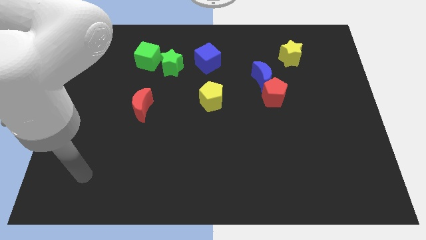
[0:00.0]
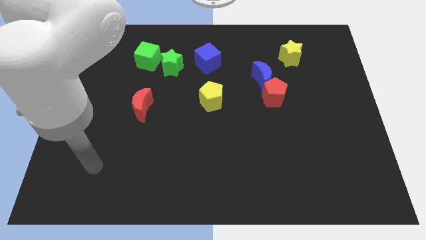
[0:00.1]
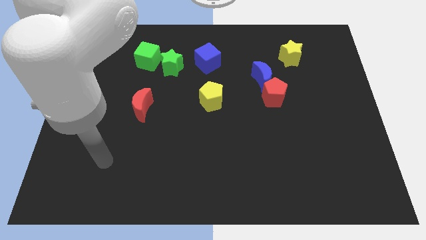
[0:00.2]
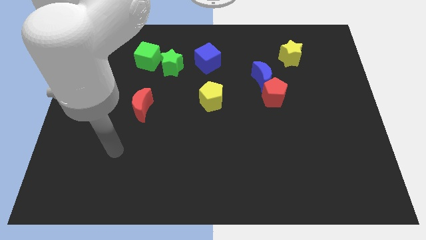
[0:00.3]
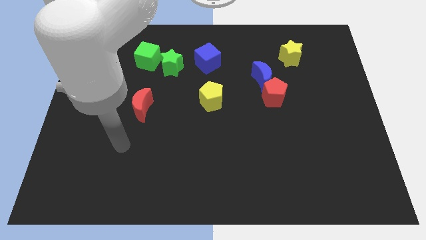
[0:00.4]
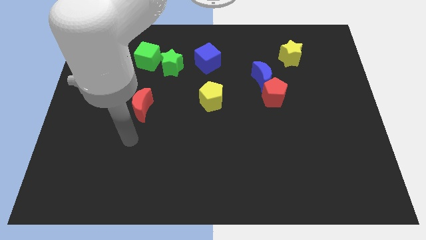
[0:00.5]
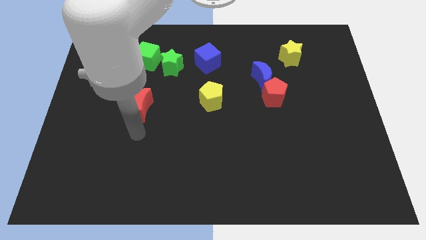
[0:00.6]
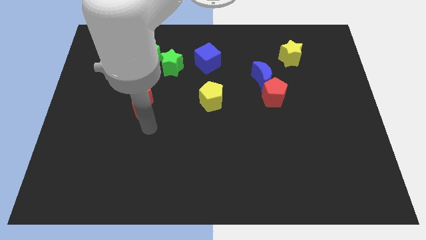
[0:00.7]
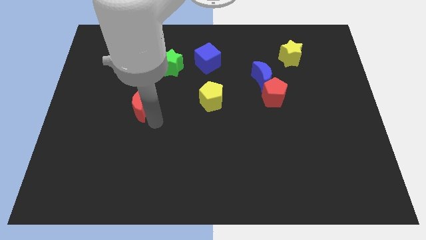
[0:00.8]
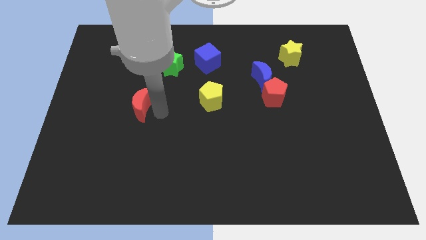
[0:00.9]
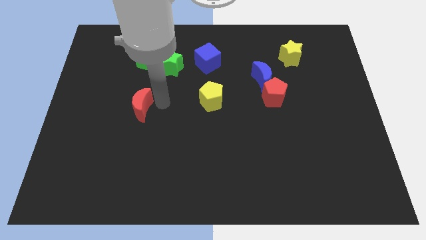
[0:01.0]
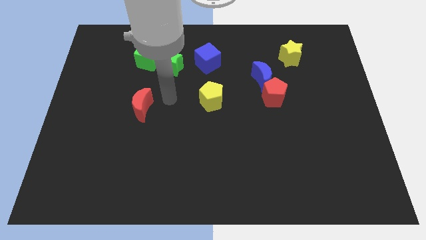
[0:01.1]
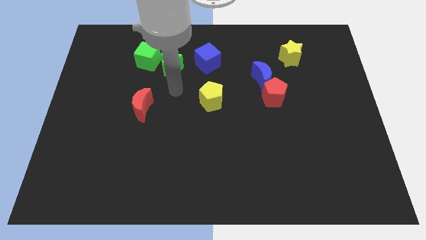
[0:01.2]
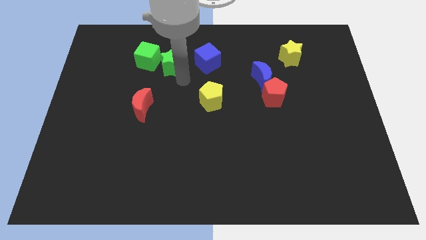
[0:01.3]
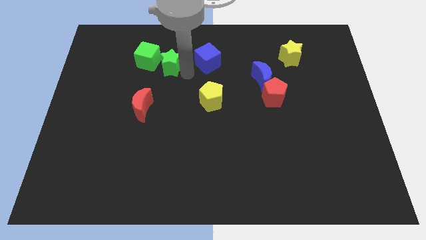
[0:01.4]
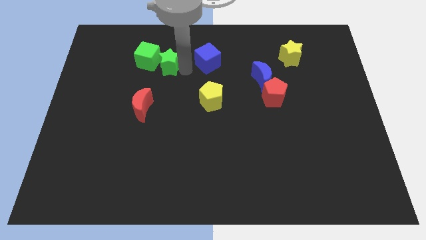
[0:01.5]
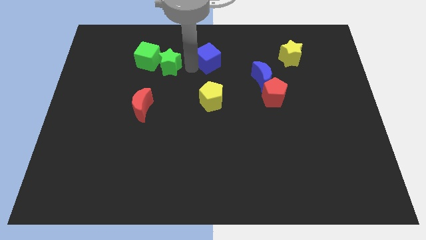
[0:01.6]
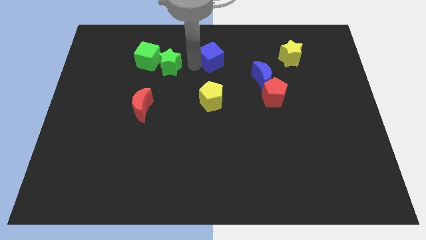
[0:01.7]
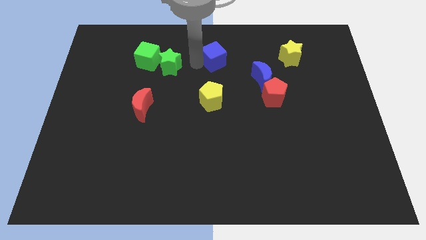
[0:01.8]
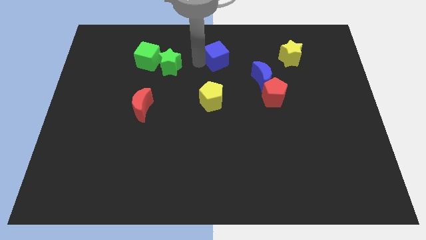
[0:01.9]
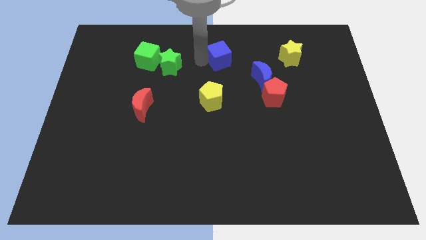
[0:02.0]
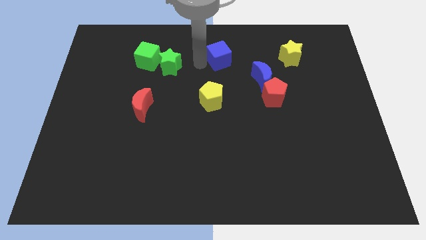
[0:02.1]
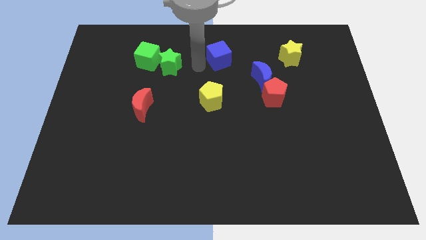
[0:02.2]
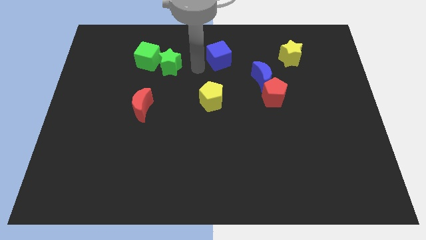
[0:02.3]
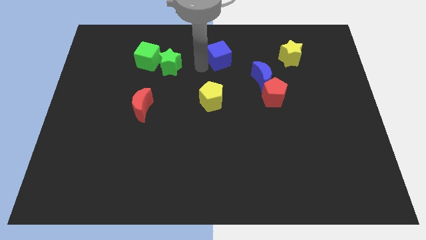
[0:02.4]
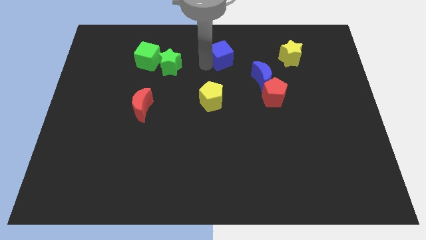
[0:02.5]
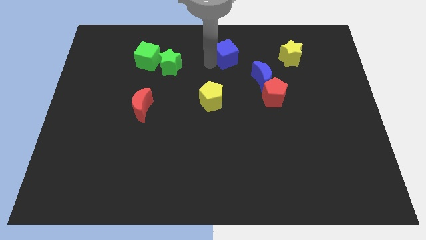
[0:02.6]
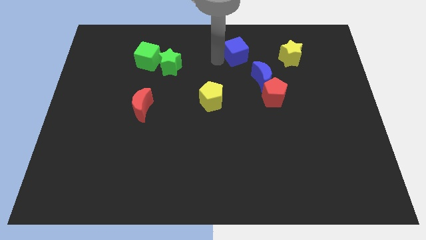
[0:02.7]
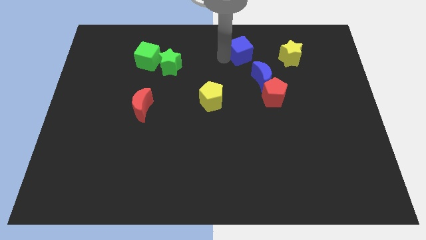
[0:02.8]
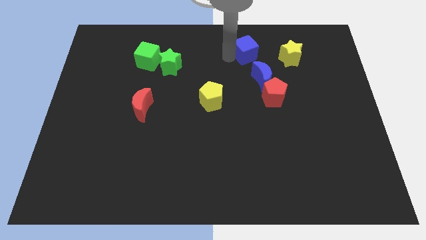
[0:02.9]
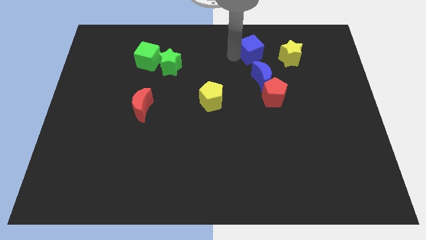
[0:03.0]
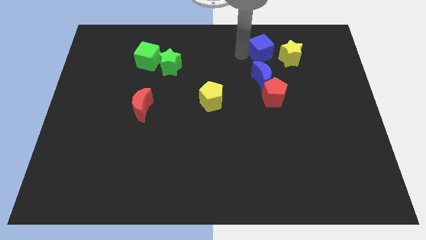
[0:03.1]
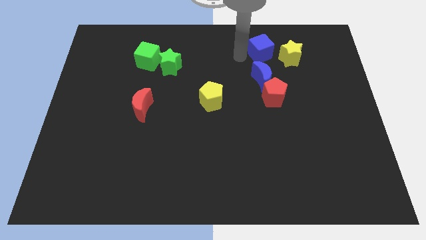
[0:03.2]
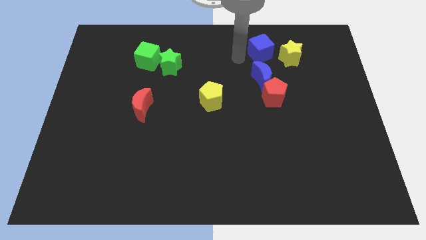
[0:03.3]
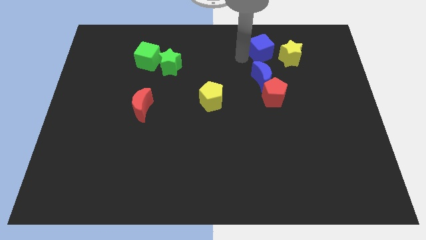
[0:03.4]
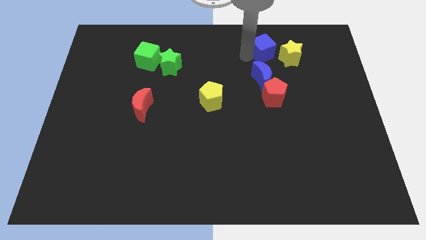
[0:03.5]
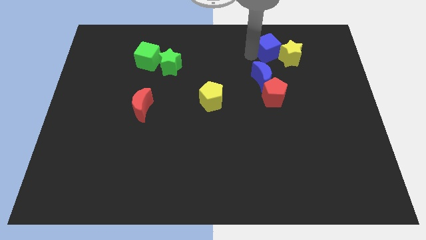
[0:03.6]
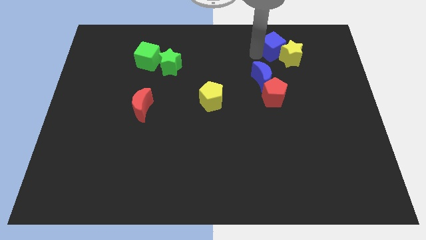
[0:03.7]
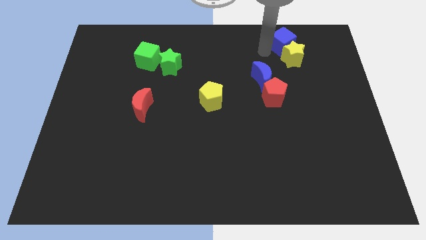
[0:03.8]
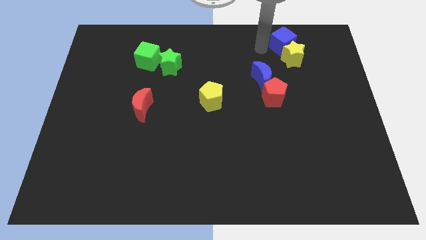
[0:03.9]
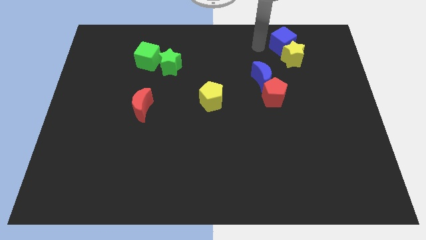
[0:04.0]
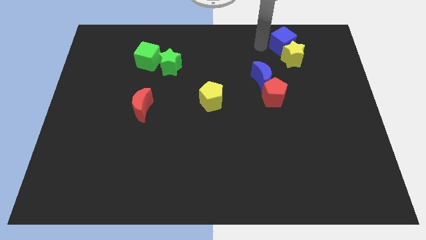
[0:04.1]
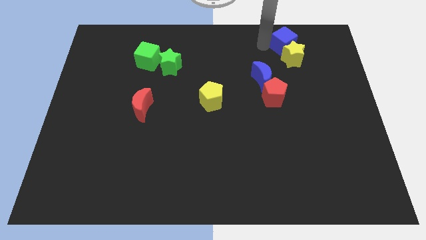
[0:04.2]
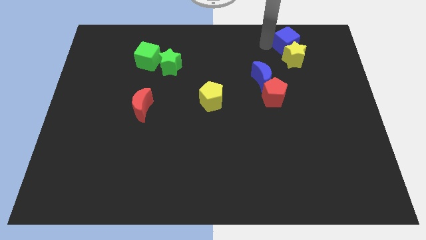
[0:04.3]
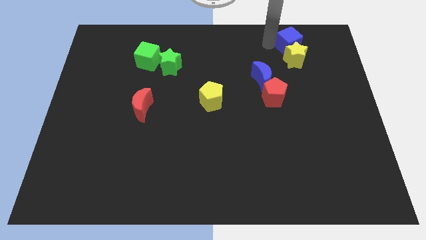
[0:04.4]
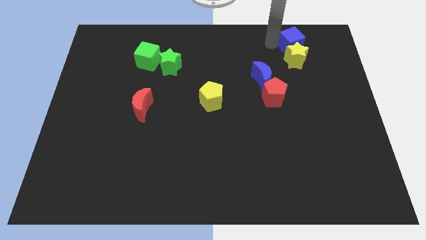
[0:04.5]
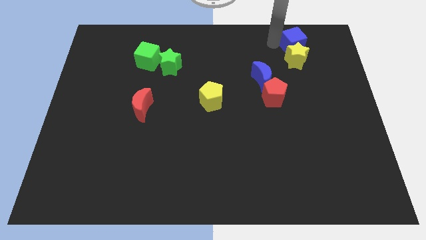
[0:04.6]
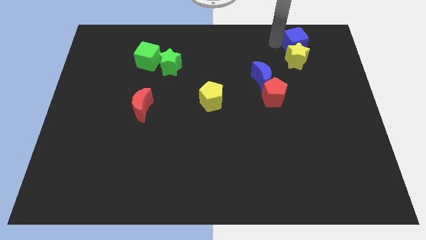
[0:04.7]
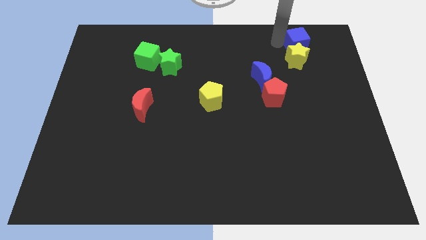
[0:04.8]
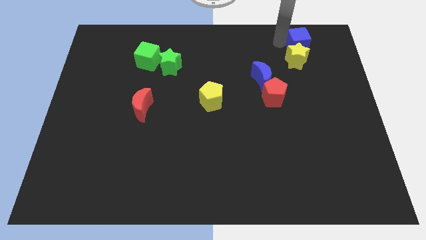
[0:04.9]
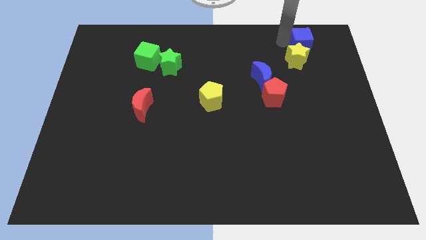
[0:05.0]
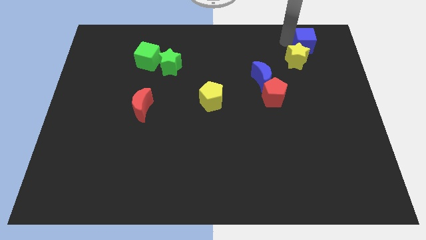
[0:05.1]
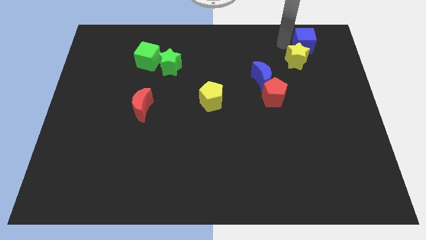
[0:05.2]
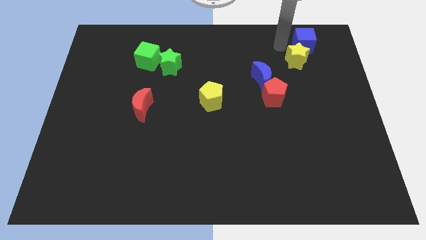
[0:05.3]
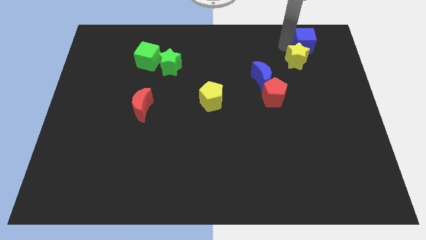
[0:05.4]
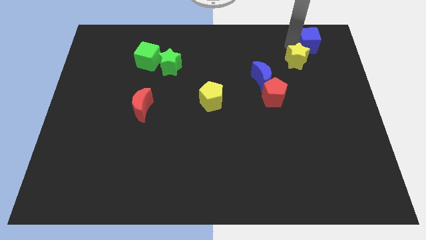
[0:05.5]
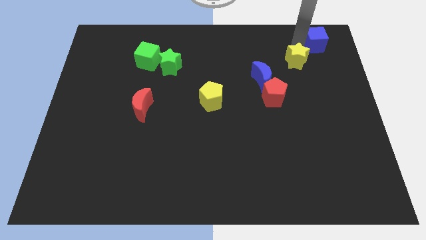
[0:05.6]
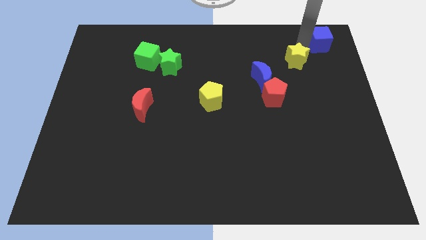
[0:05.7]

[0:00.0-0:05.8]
put the blue cube to the top right

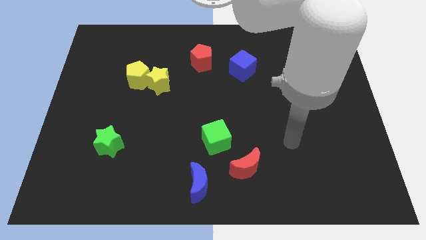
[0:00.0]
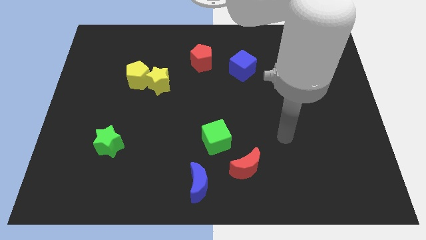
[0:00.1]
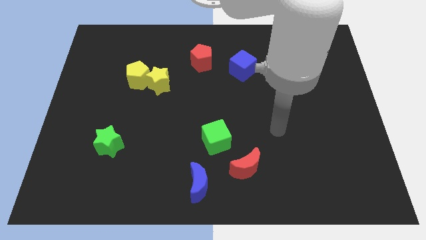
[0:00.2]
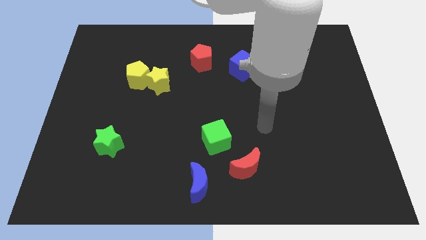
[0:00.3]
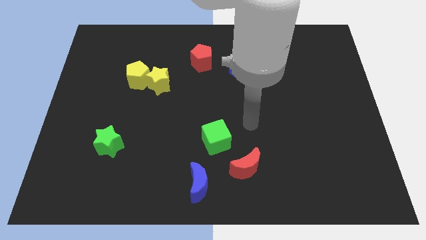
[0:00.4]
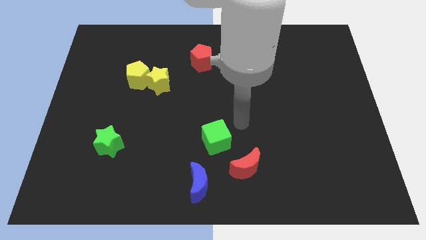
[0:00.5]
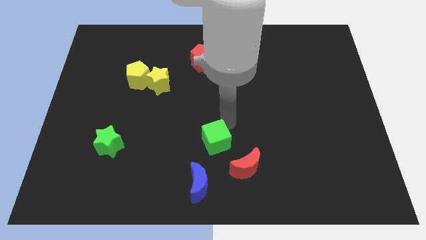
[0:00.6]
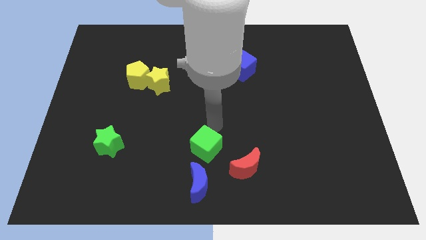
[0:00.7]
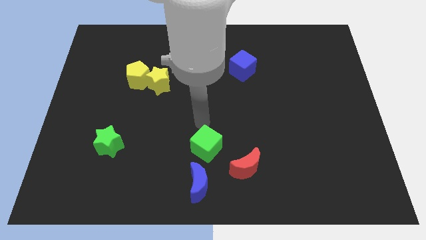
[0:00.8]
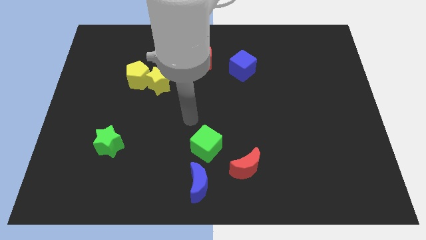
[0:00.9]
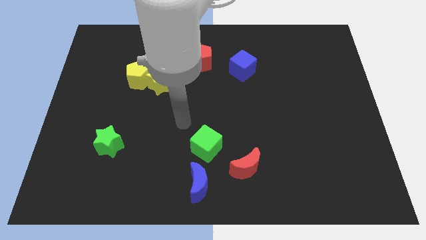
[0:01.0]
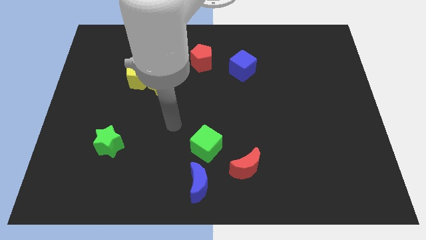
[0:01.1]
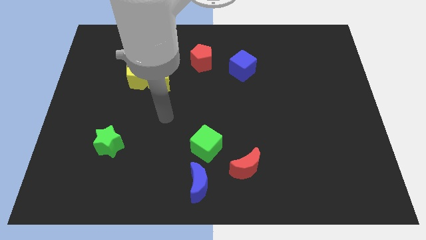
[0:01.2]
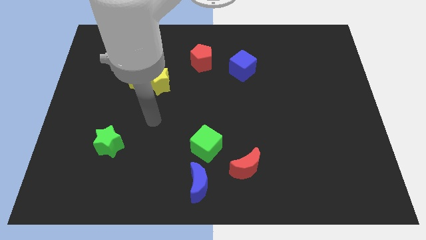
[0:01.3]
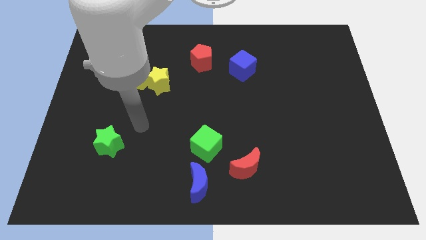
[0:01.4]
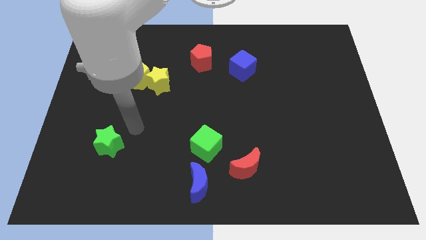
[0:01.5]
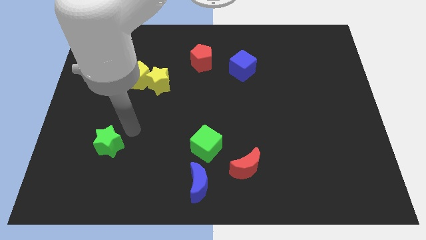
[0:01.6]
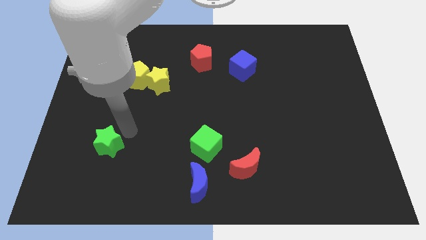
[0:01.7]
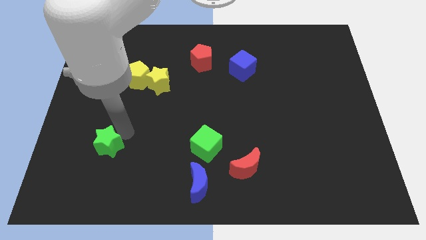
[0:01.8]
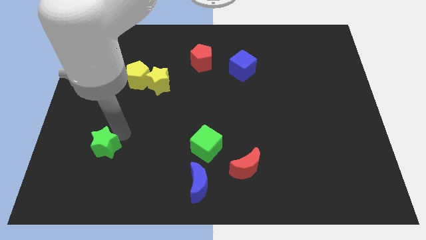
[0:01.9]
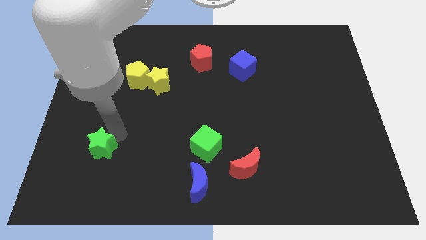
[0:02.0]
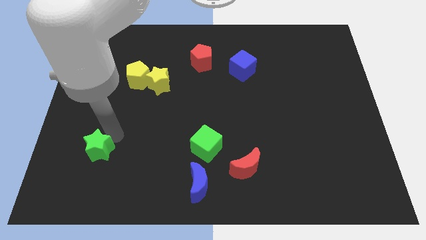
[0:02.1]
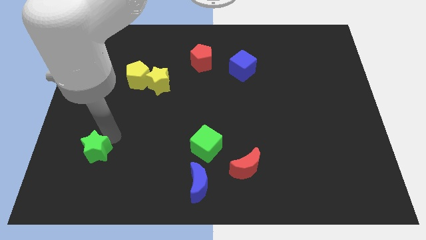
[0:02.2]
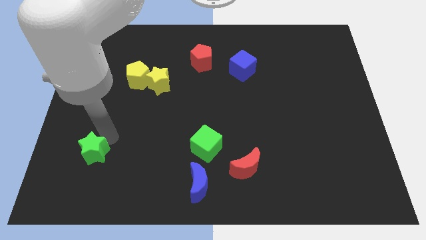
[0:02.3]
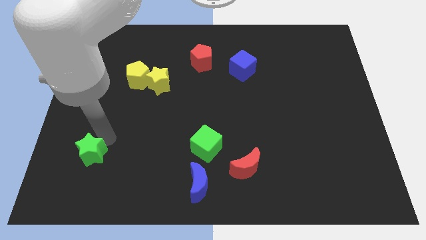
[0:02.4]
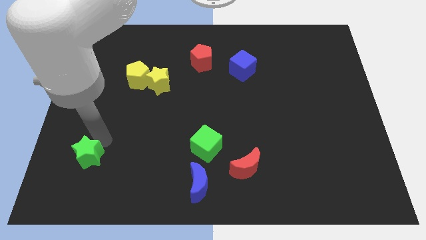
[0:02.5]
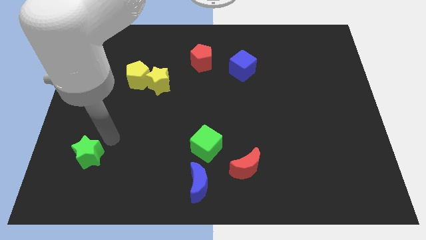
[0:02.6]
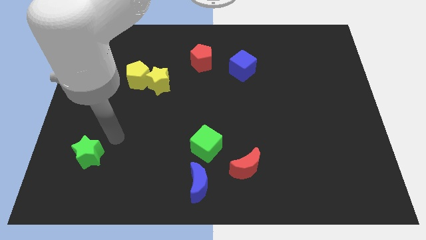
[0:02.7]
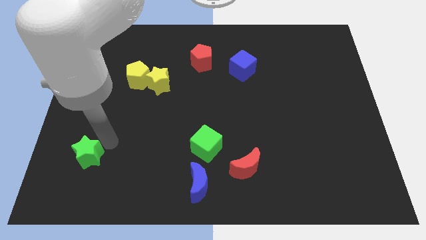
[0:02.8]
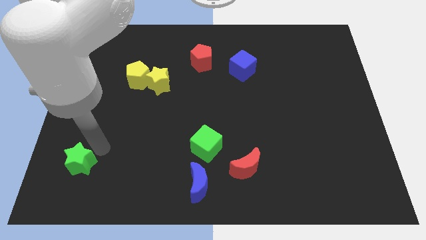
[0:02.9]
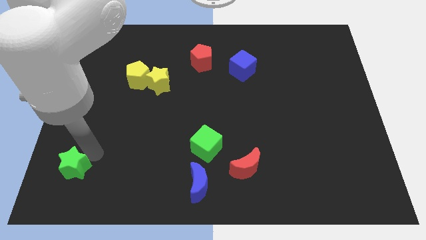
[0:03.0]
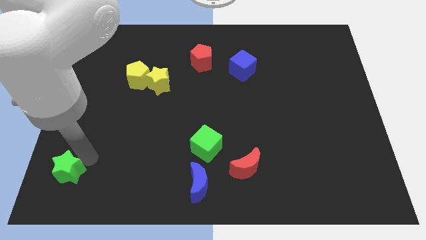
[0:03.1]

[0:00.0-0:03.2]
slide the green star to the lower left corner
